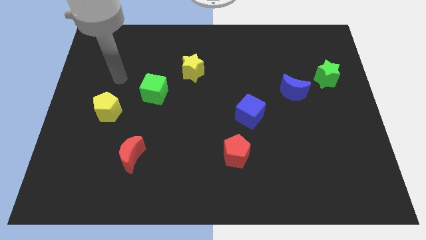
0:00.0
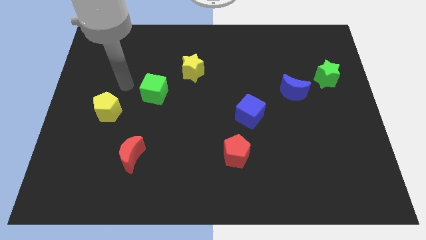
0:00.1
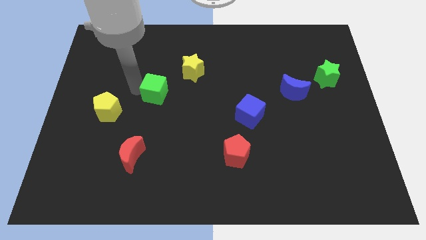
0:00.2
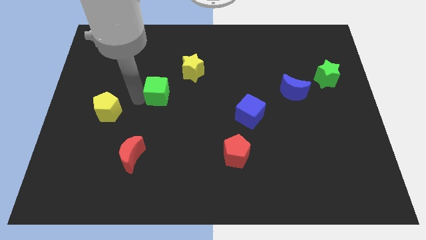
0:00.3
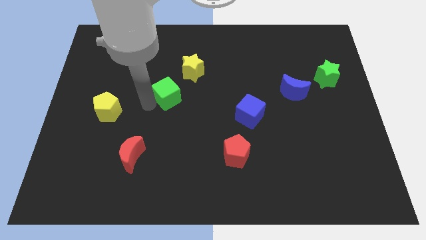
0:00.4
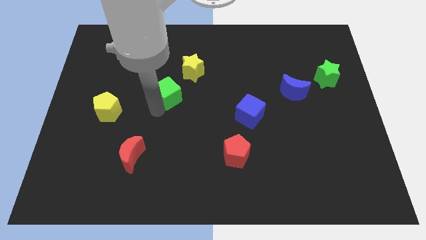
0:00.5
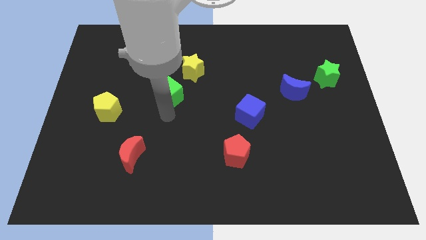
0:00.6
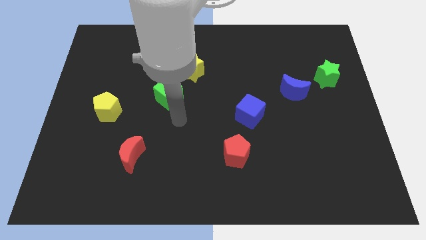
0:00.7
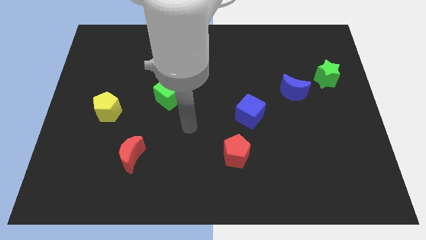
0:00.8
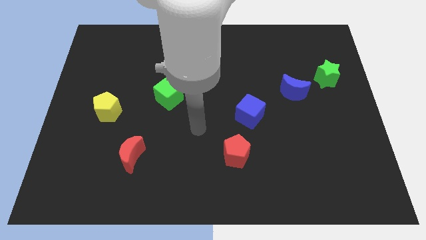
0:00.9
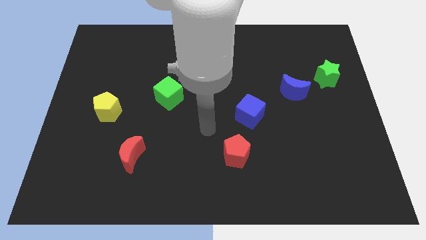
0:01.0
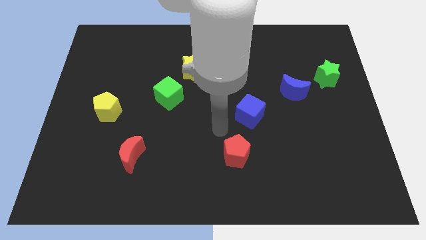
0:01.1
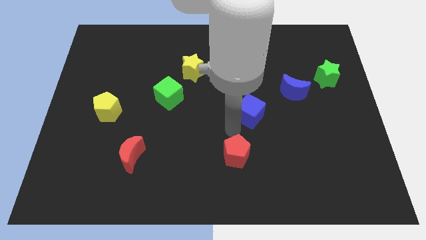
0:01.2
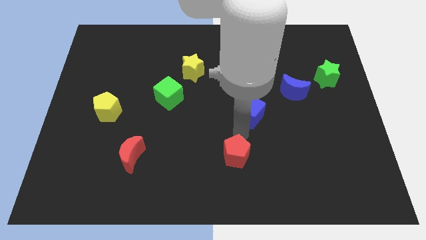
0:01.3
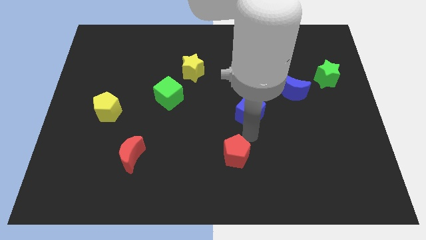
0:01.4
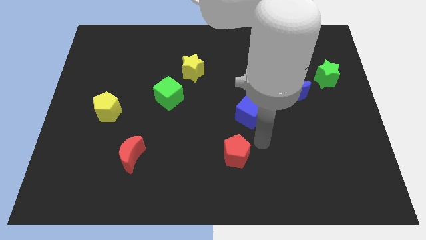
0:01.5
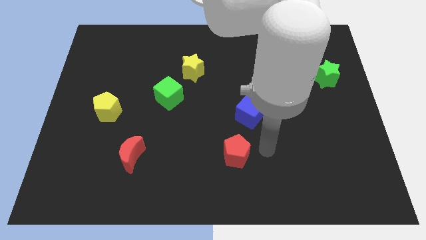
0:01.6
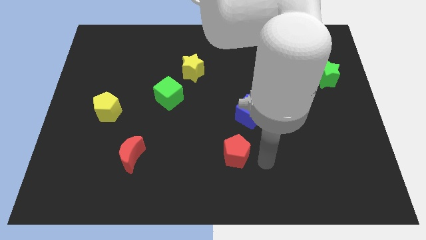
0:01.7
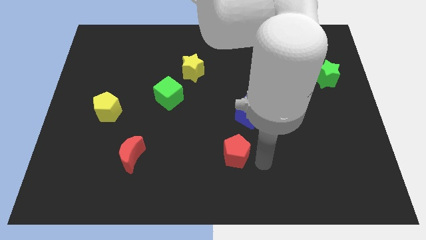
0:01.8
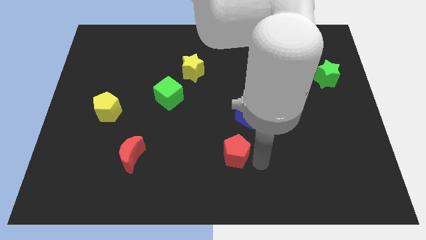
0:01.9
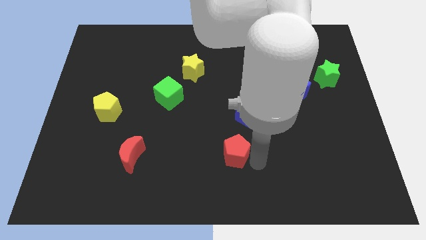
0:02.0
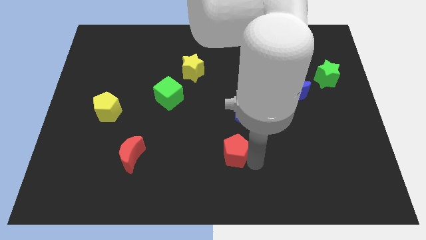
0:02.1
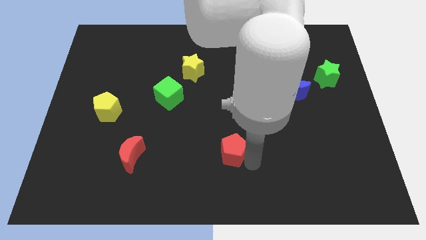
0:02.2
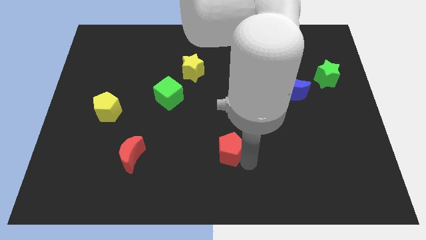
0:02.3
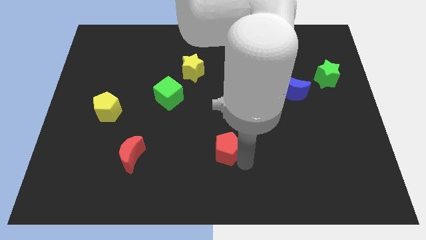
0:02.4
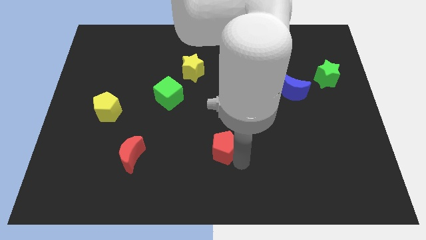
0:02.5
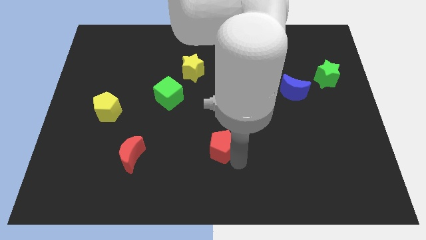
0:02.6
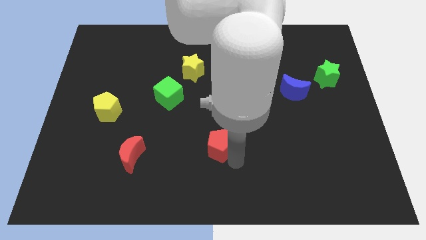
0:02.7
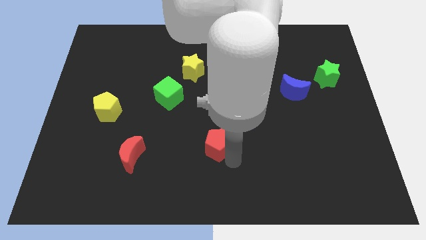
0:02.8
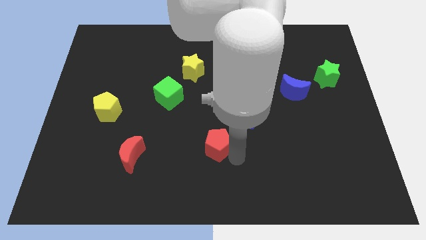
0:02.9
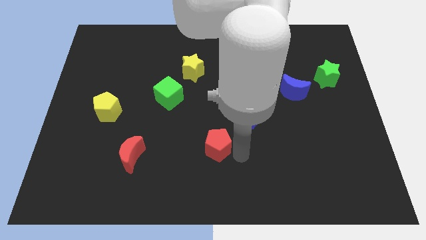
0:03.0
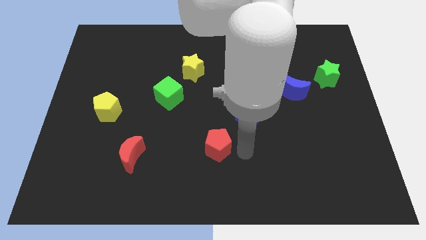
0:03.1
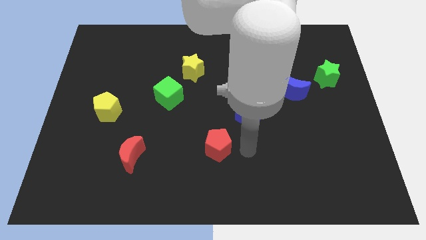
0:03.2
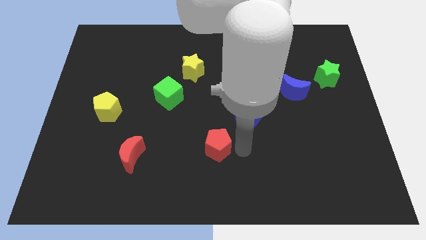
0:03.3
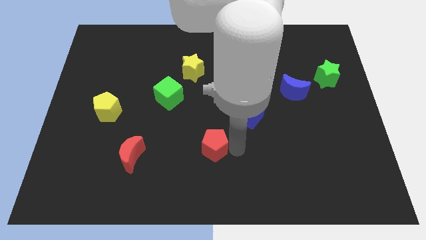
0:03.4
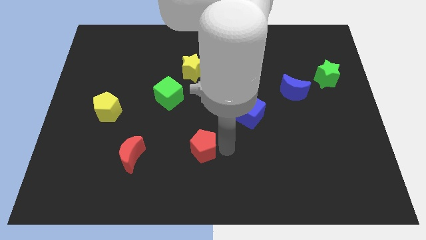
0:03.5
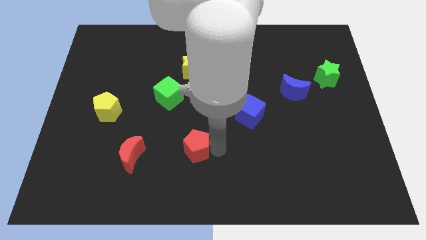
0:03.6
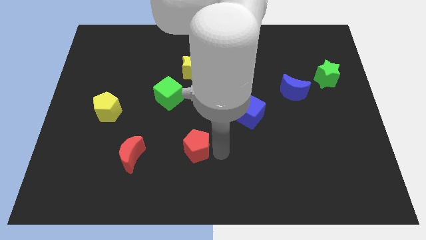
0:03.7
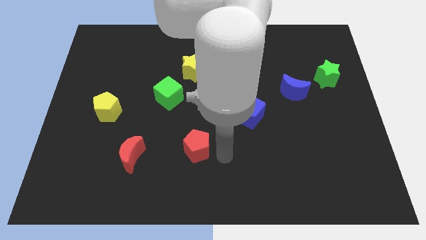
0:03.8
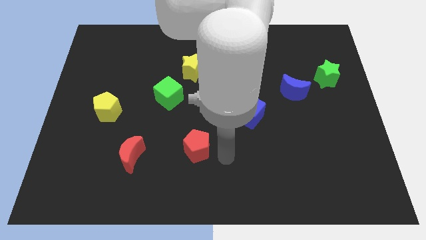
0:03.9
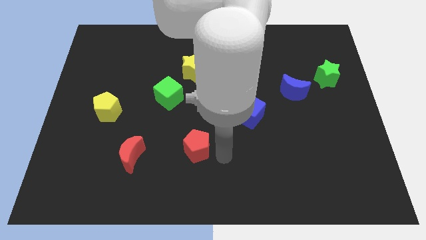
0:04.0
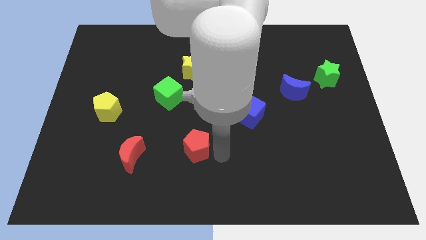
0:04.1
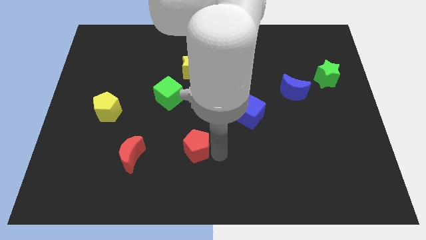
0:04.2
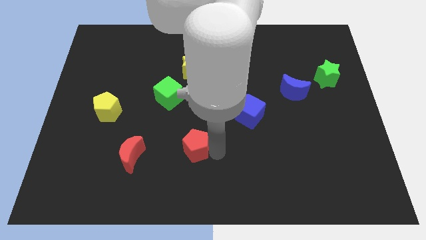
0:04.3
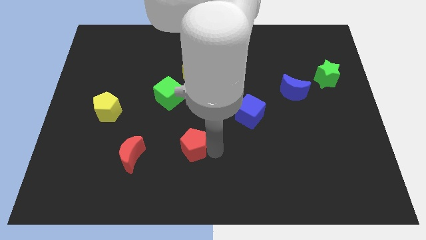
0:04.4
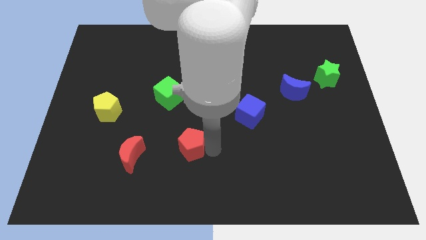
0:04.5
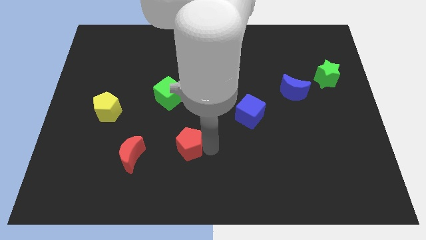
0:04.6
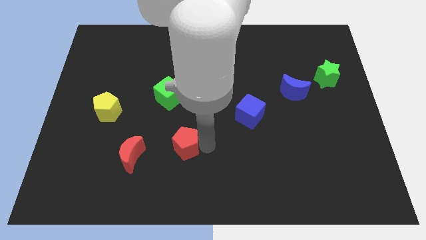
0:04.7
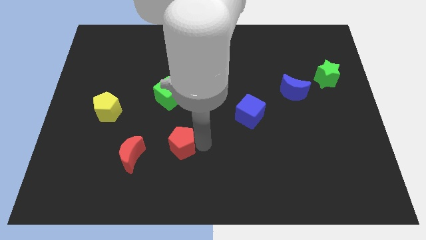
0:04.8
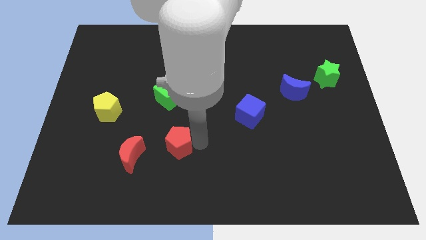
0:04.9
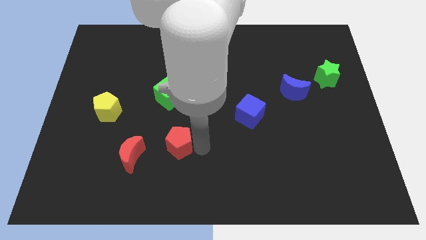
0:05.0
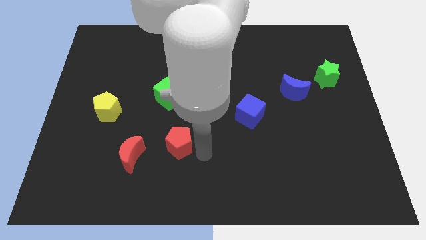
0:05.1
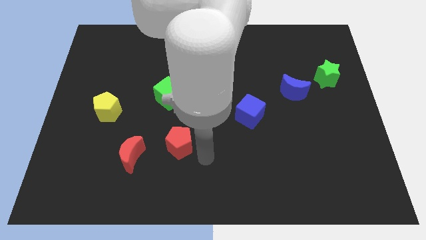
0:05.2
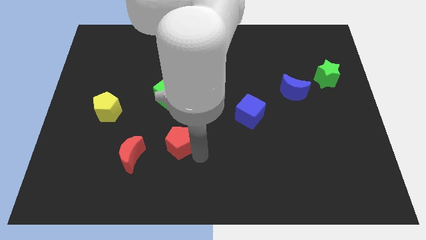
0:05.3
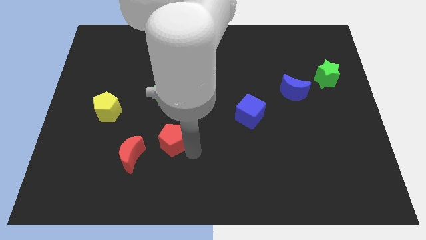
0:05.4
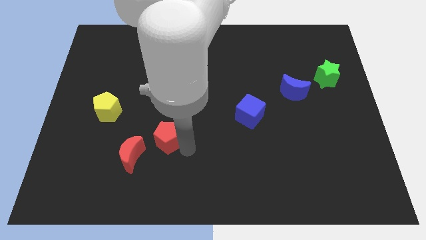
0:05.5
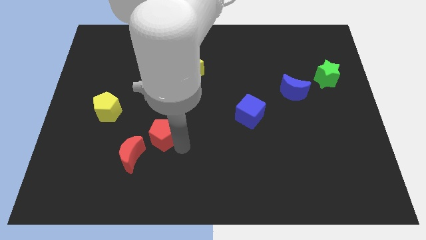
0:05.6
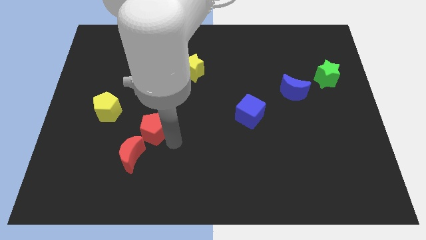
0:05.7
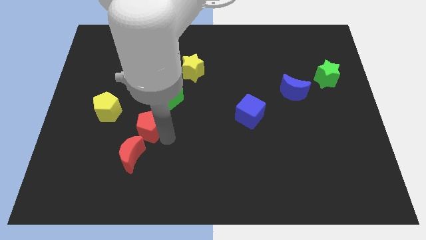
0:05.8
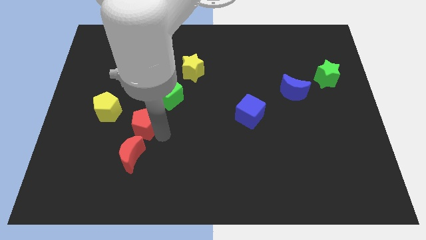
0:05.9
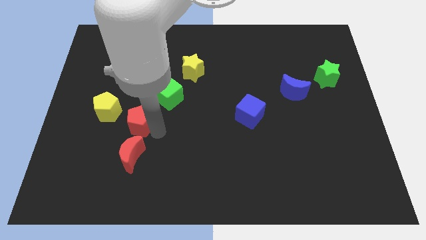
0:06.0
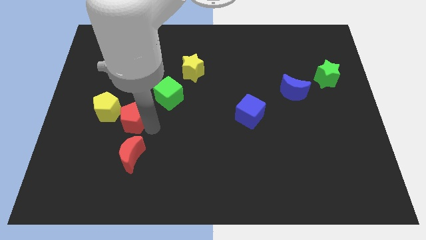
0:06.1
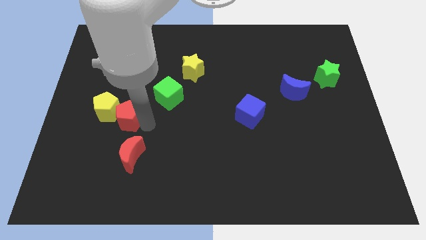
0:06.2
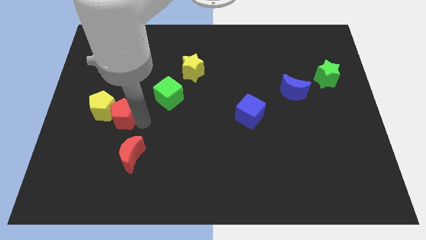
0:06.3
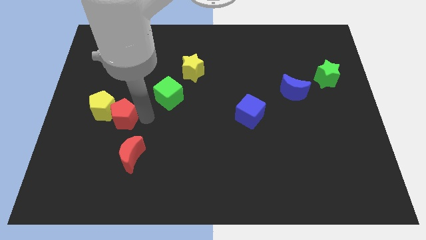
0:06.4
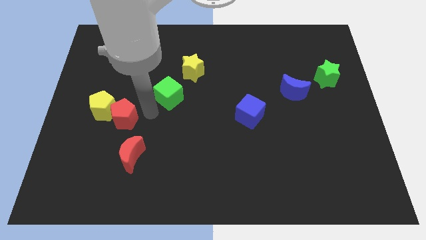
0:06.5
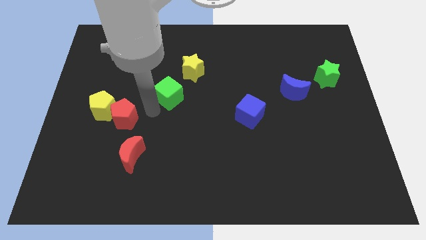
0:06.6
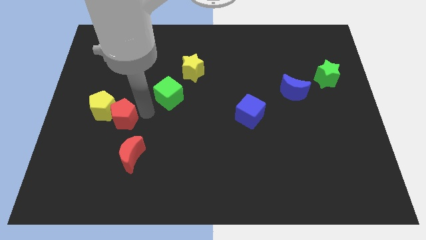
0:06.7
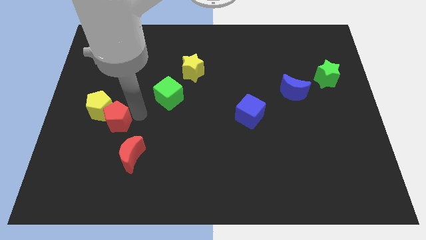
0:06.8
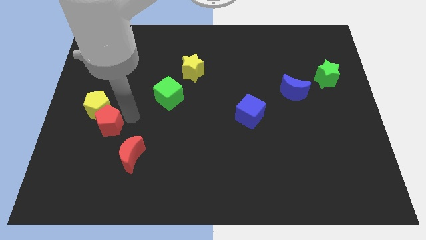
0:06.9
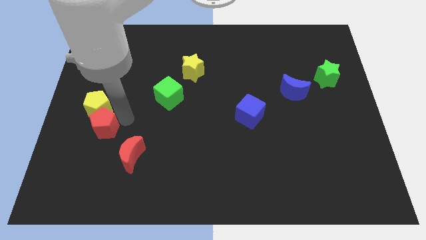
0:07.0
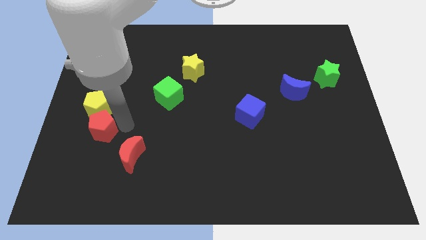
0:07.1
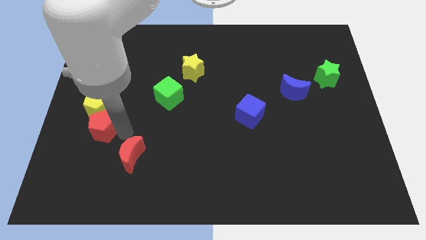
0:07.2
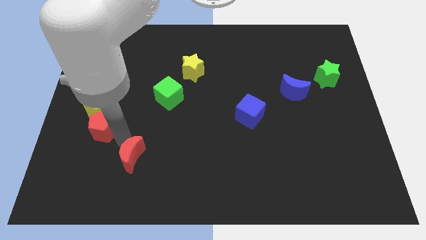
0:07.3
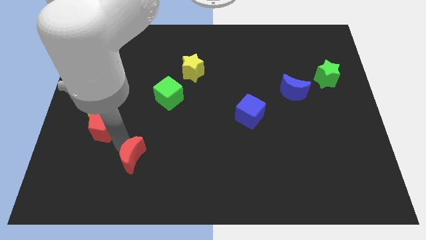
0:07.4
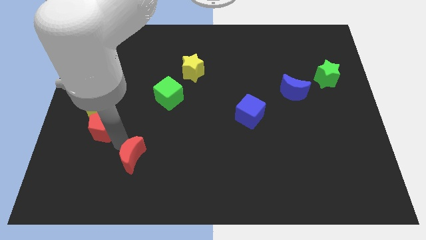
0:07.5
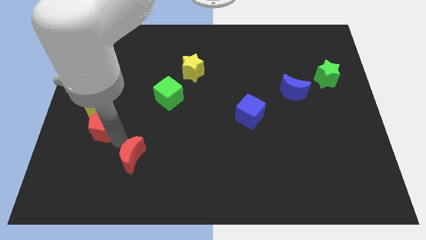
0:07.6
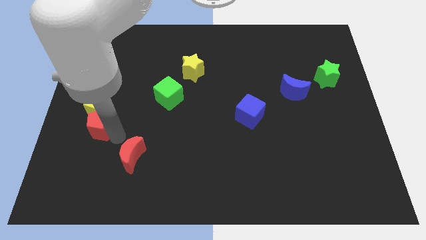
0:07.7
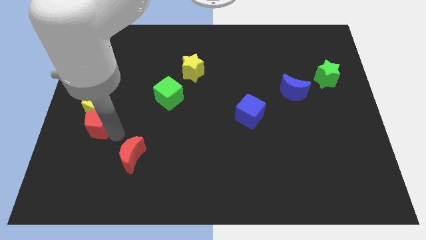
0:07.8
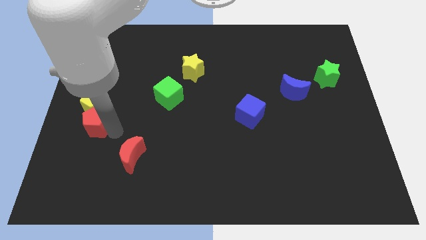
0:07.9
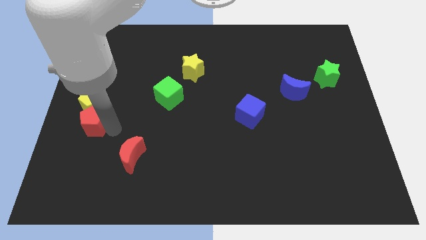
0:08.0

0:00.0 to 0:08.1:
move the red pentagon to the center left
